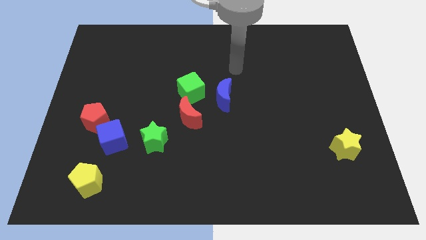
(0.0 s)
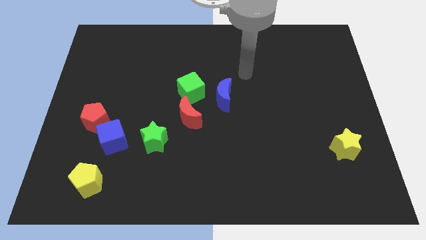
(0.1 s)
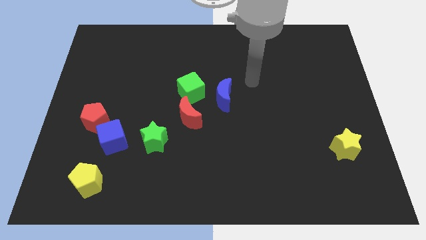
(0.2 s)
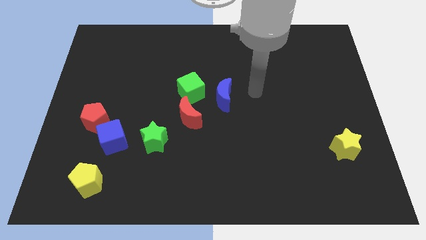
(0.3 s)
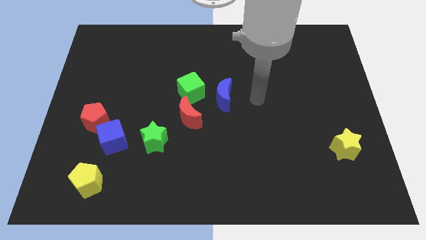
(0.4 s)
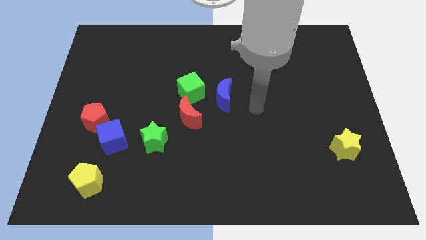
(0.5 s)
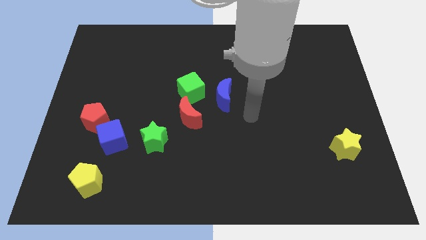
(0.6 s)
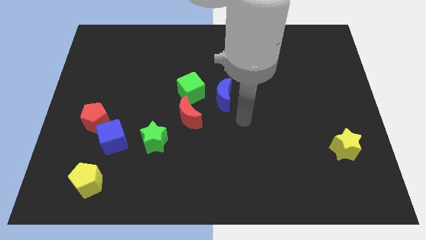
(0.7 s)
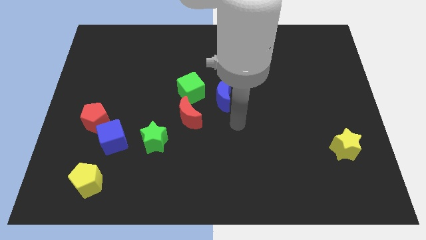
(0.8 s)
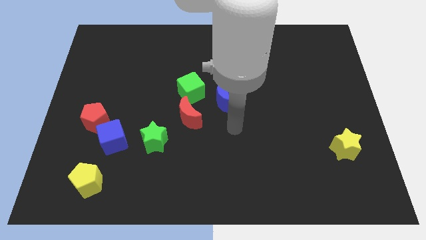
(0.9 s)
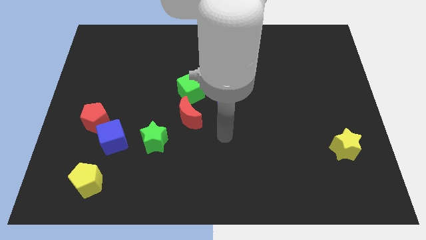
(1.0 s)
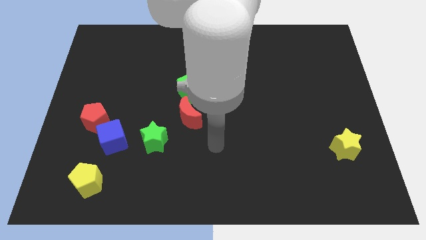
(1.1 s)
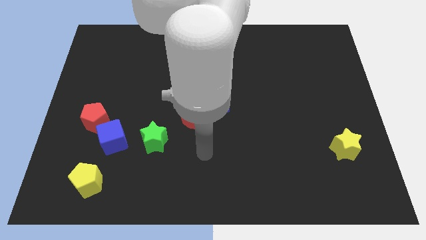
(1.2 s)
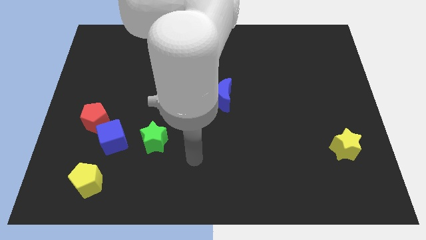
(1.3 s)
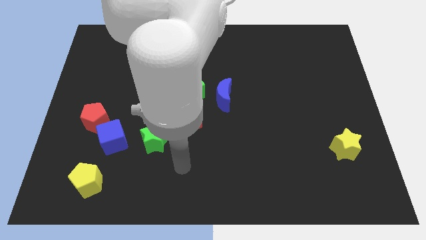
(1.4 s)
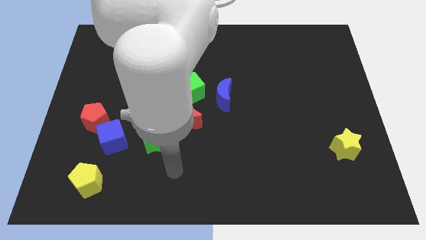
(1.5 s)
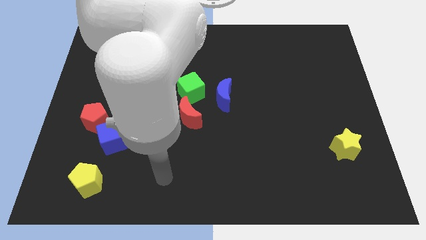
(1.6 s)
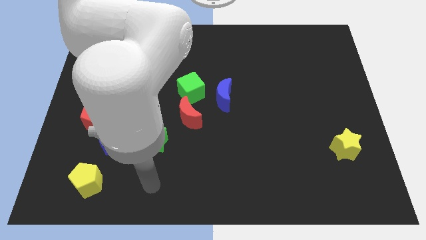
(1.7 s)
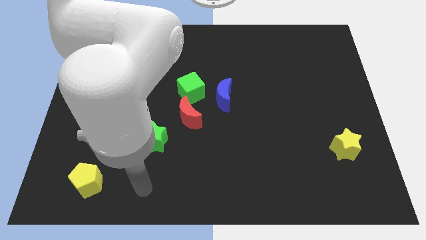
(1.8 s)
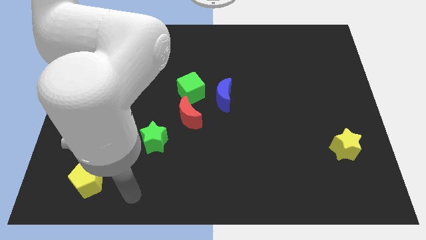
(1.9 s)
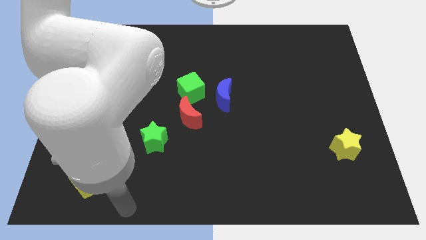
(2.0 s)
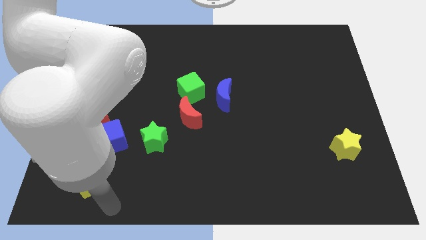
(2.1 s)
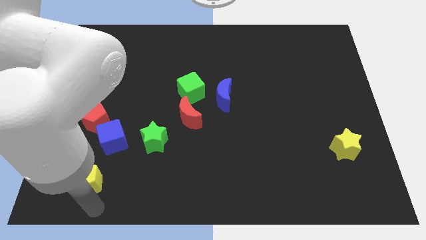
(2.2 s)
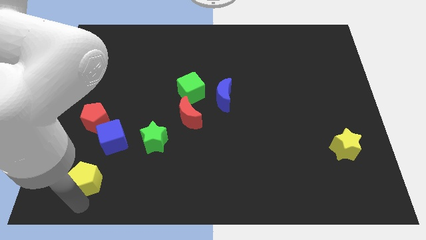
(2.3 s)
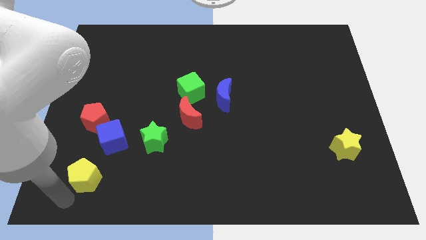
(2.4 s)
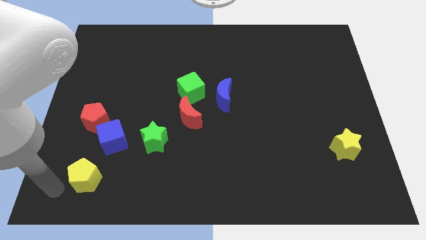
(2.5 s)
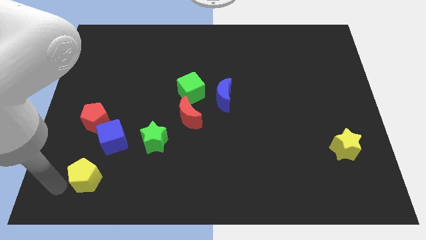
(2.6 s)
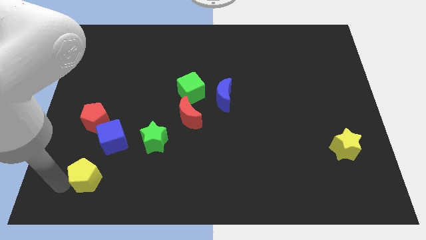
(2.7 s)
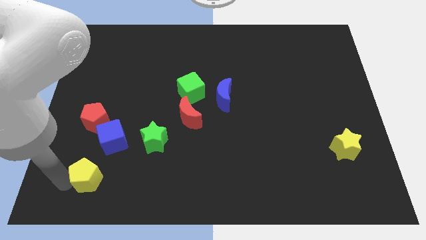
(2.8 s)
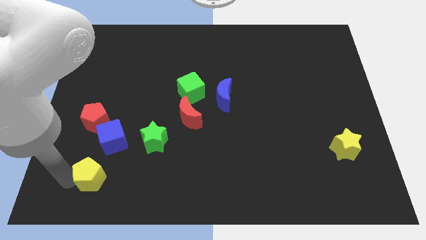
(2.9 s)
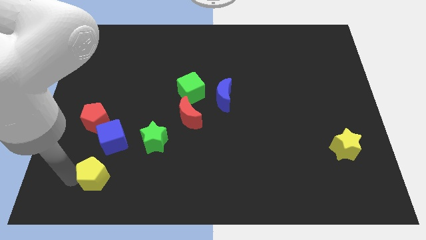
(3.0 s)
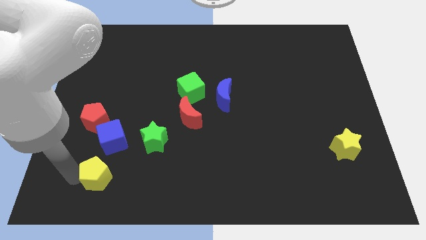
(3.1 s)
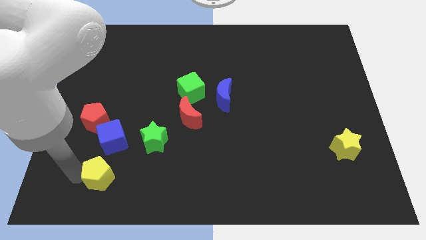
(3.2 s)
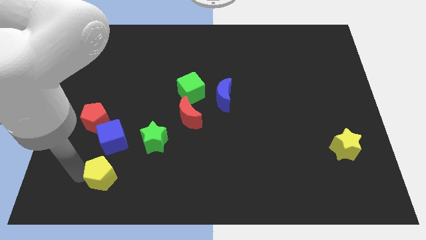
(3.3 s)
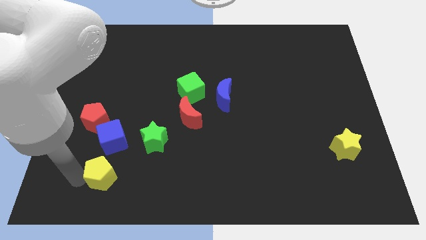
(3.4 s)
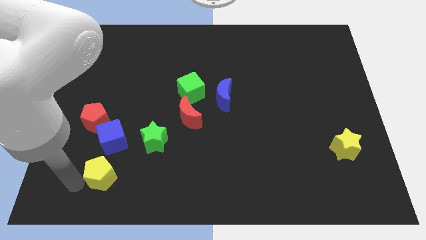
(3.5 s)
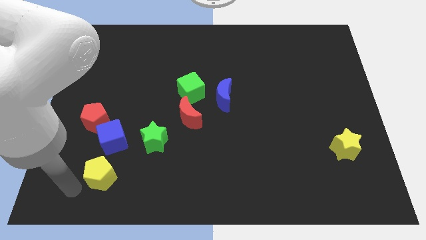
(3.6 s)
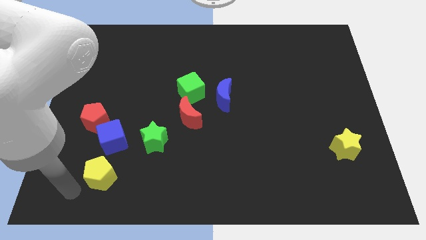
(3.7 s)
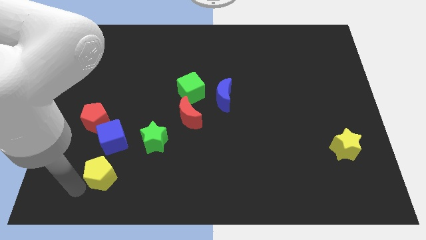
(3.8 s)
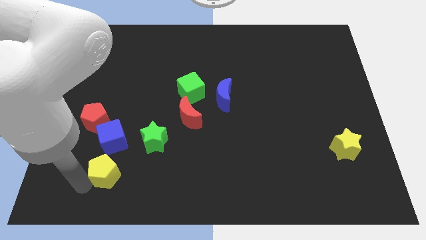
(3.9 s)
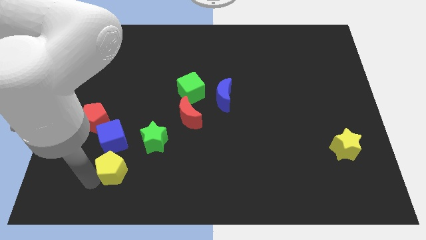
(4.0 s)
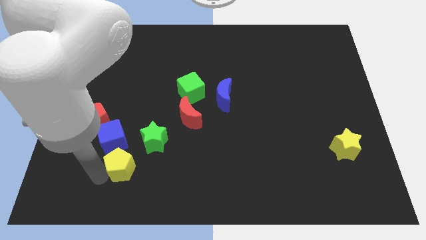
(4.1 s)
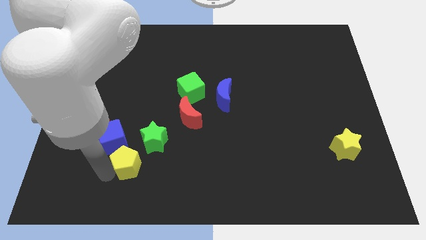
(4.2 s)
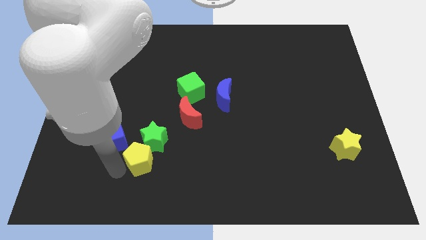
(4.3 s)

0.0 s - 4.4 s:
put the yellow pentagon towards the green star

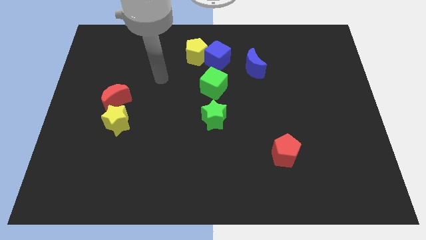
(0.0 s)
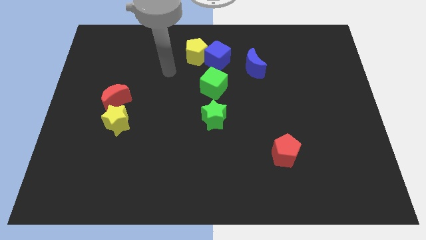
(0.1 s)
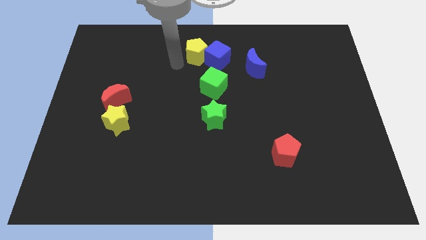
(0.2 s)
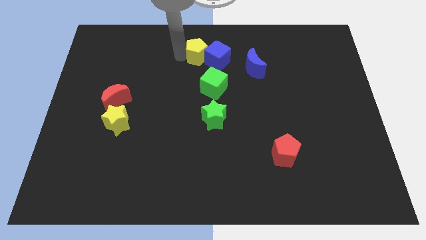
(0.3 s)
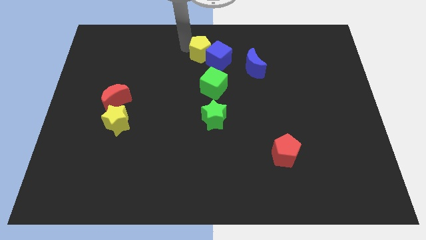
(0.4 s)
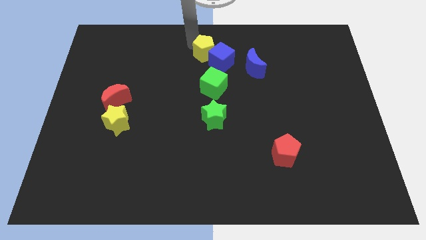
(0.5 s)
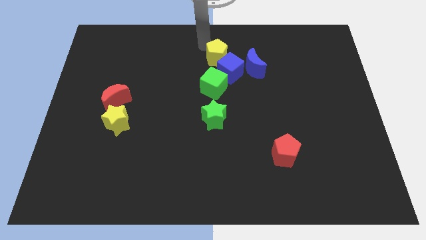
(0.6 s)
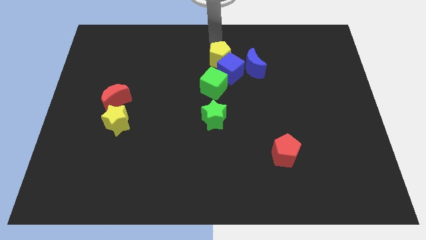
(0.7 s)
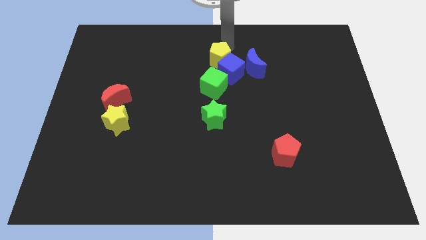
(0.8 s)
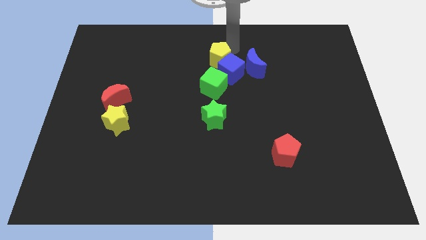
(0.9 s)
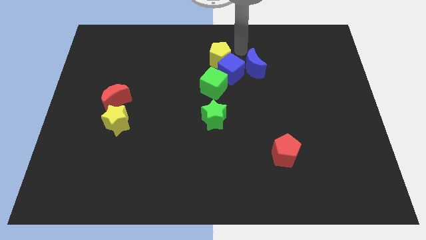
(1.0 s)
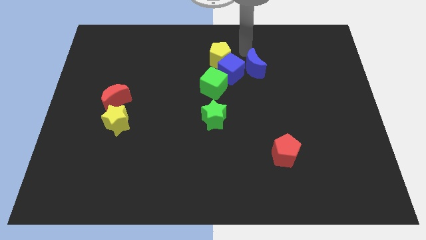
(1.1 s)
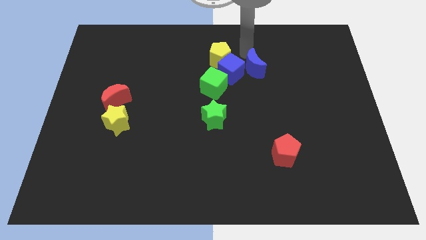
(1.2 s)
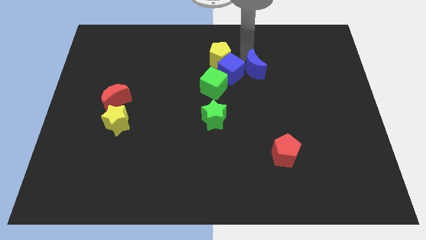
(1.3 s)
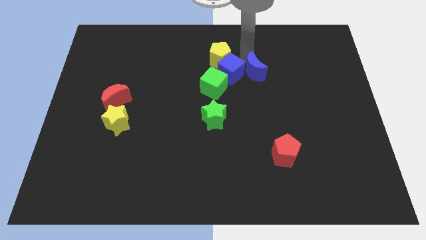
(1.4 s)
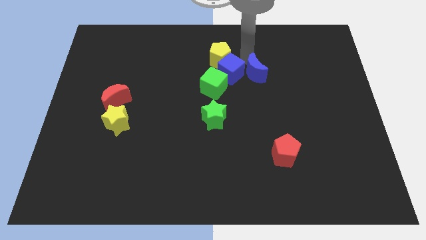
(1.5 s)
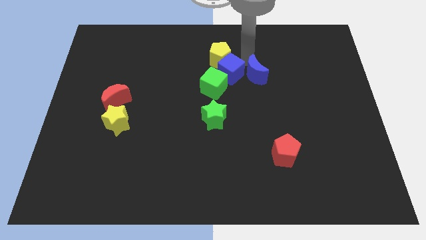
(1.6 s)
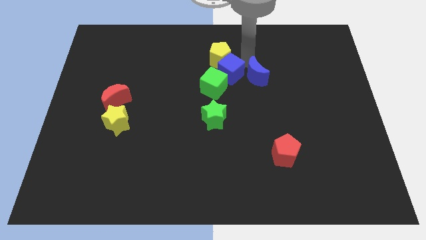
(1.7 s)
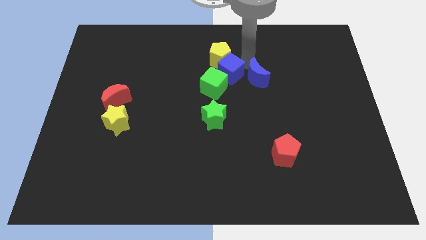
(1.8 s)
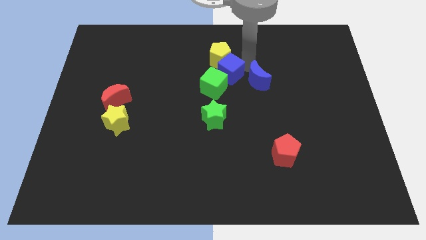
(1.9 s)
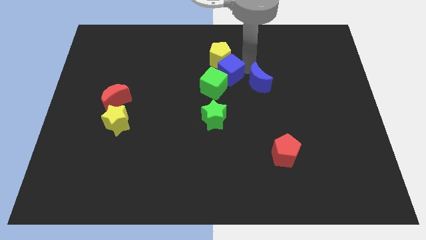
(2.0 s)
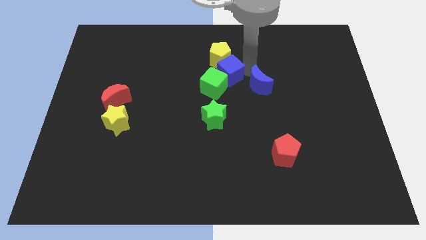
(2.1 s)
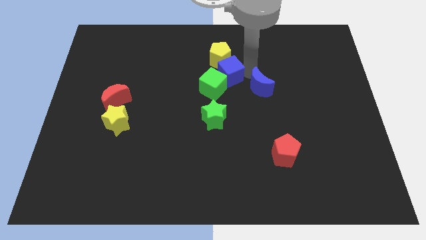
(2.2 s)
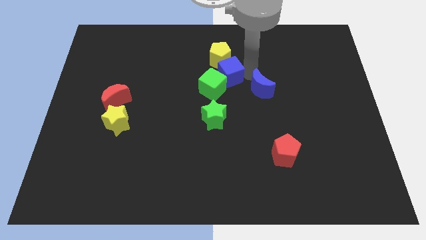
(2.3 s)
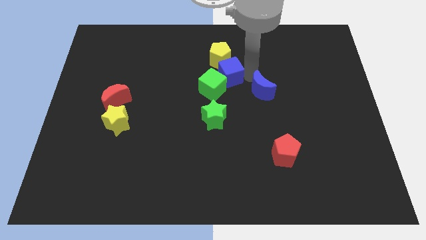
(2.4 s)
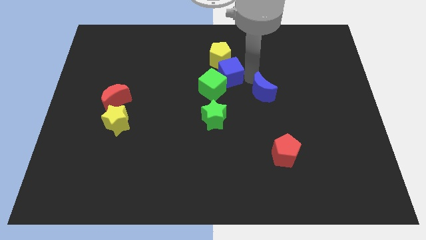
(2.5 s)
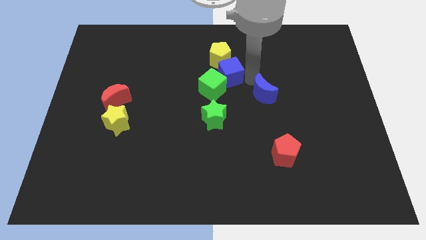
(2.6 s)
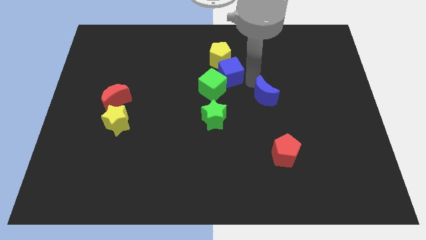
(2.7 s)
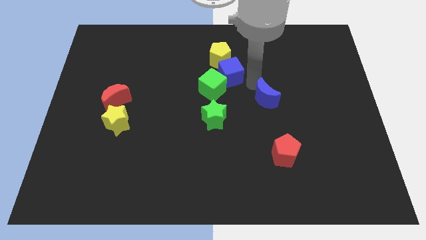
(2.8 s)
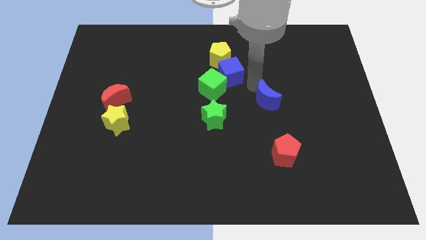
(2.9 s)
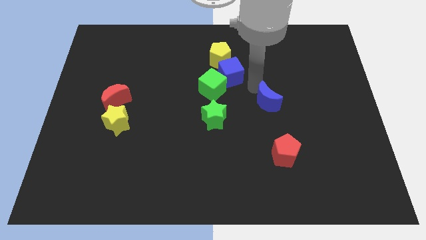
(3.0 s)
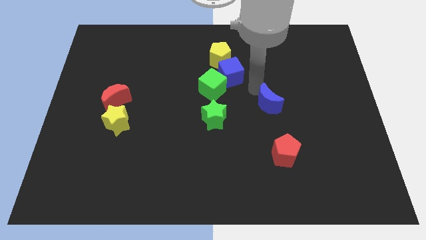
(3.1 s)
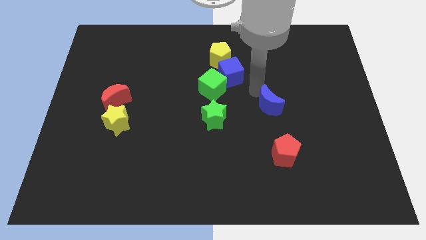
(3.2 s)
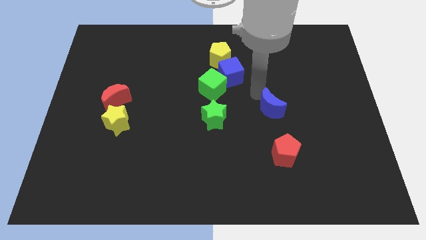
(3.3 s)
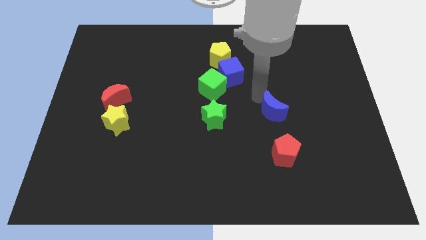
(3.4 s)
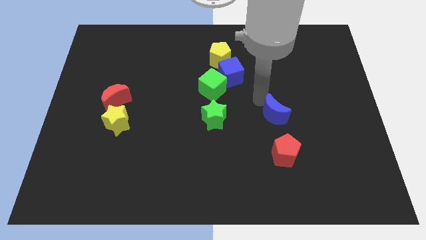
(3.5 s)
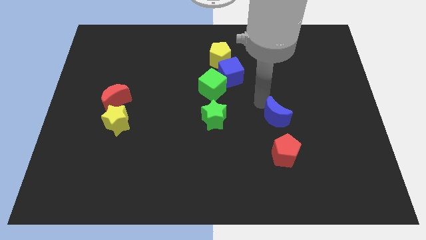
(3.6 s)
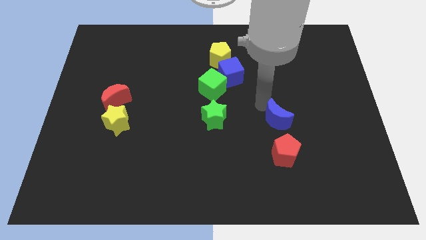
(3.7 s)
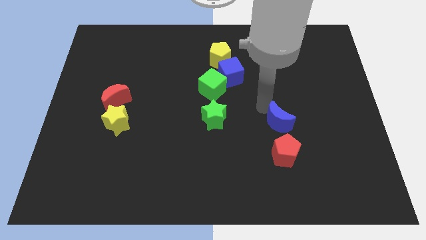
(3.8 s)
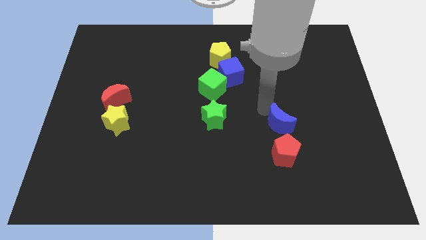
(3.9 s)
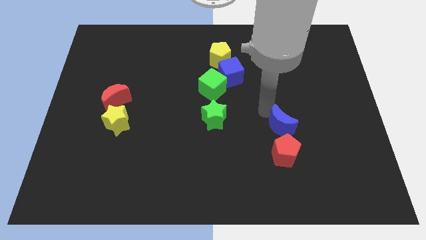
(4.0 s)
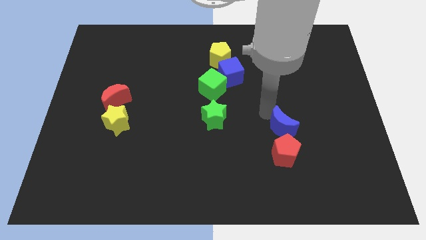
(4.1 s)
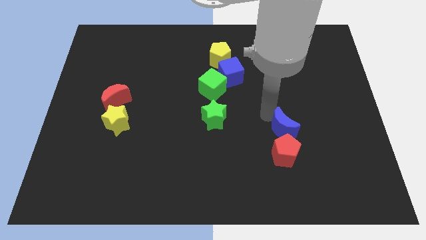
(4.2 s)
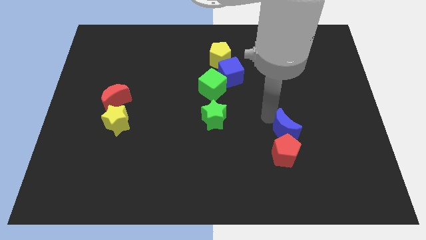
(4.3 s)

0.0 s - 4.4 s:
push the blue moon next to the red pentagon

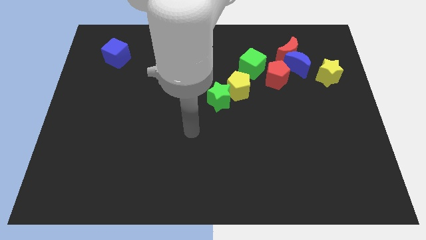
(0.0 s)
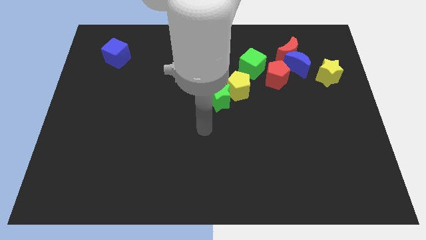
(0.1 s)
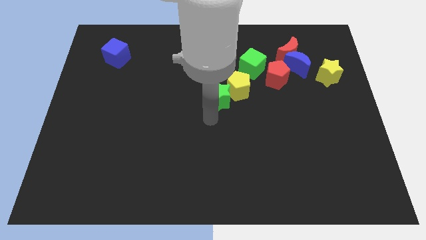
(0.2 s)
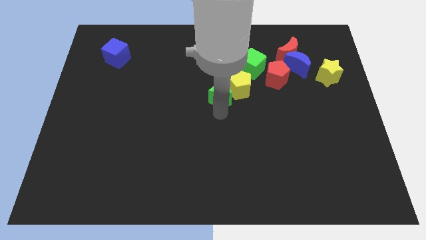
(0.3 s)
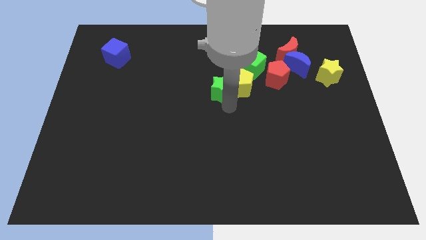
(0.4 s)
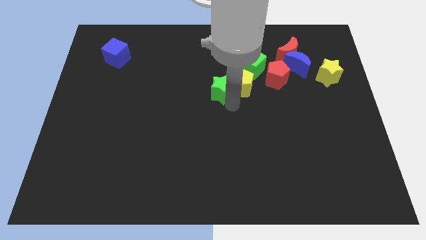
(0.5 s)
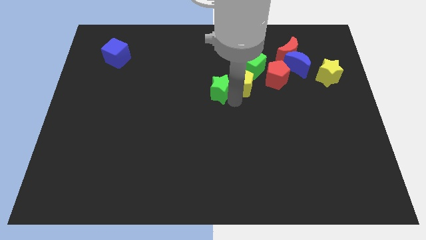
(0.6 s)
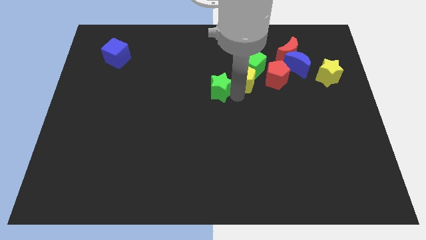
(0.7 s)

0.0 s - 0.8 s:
push the yellow pentagon towards the green cube
